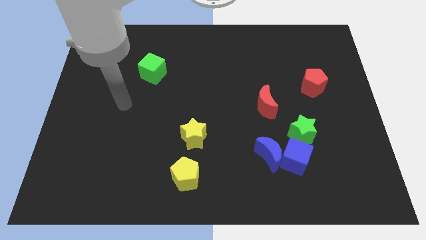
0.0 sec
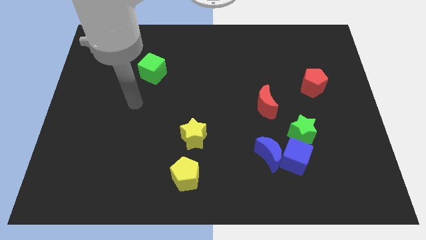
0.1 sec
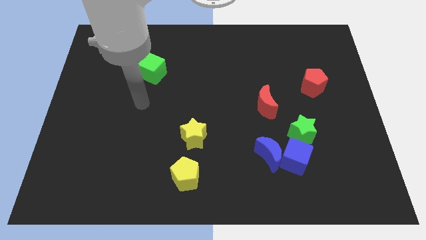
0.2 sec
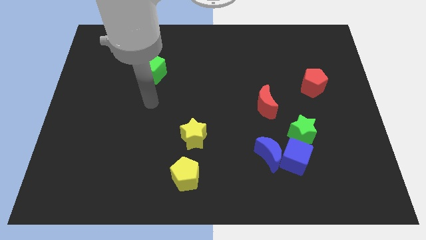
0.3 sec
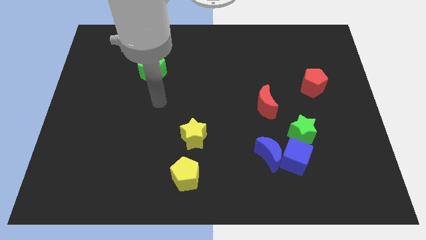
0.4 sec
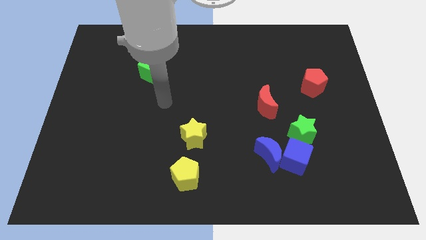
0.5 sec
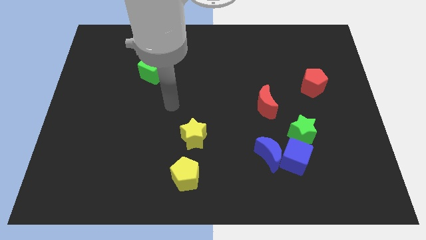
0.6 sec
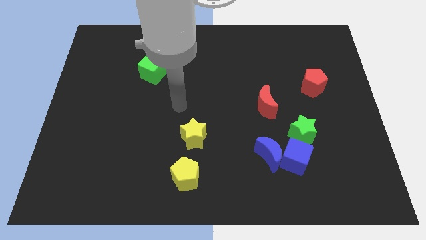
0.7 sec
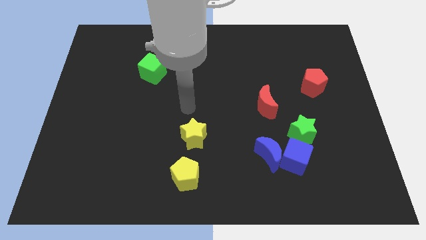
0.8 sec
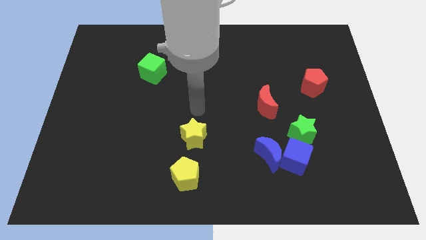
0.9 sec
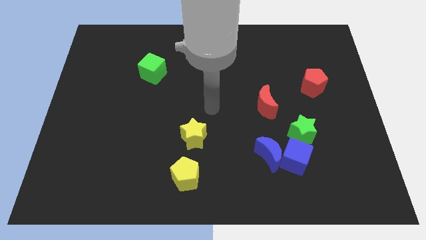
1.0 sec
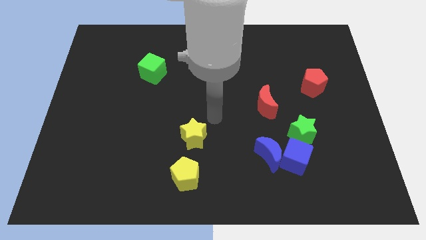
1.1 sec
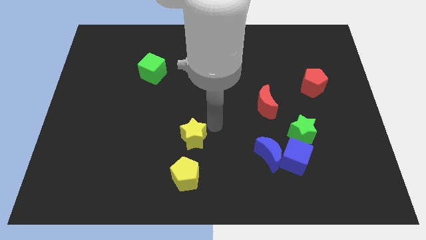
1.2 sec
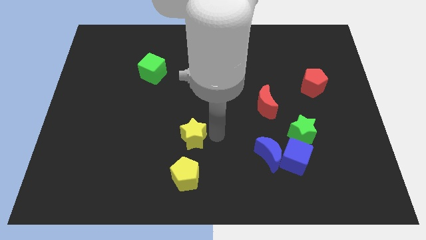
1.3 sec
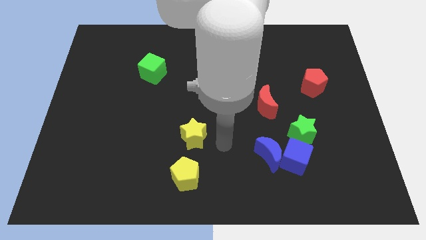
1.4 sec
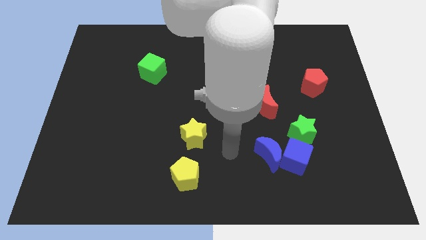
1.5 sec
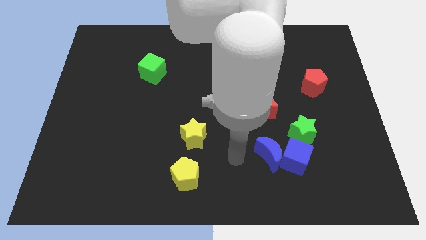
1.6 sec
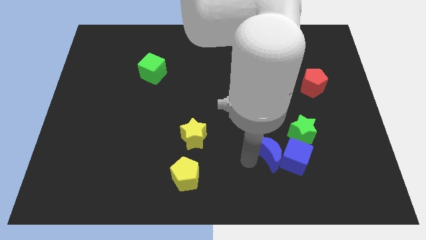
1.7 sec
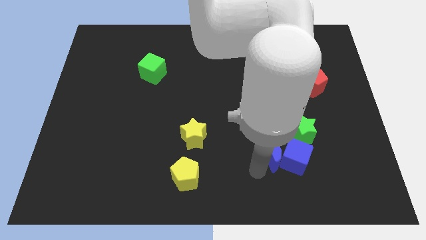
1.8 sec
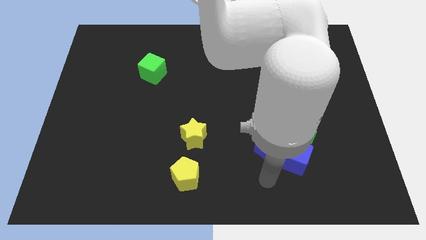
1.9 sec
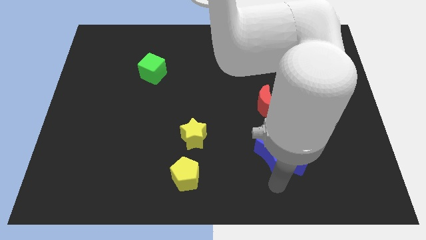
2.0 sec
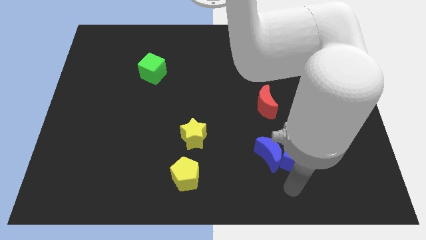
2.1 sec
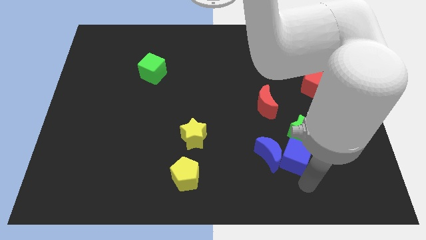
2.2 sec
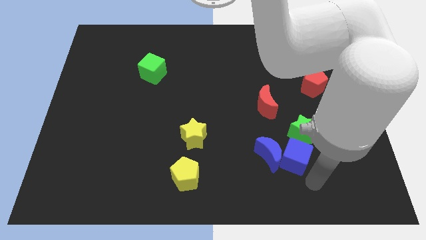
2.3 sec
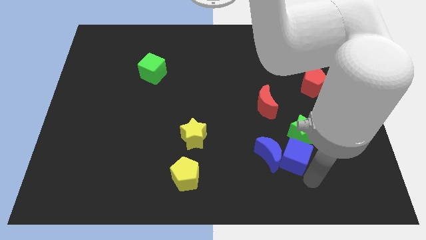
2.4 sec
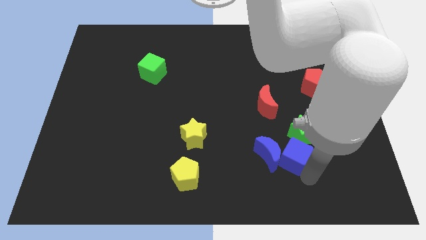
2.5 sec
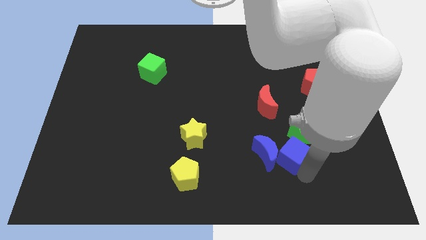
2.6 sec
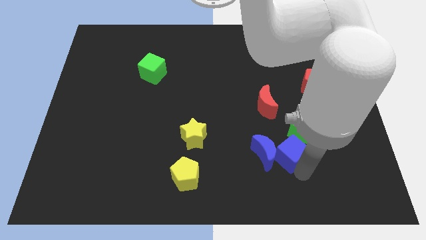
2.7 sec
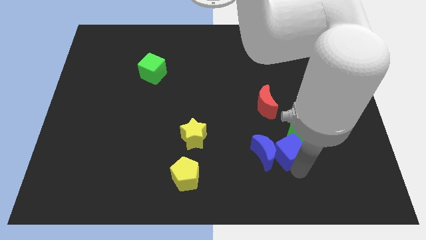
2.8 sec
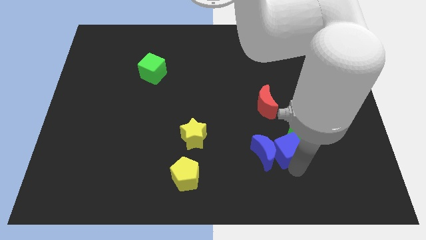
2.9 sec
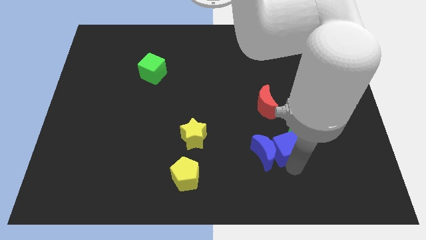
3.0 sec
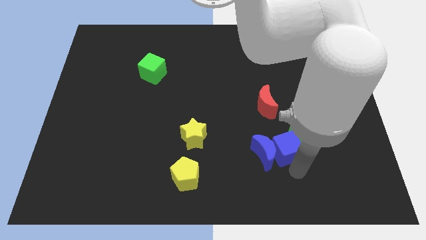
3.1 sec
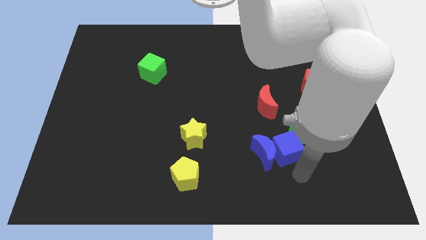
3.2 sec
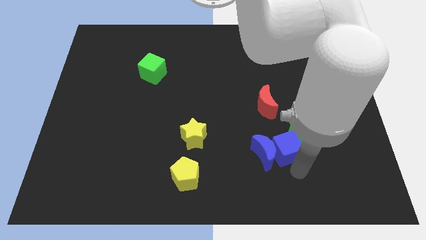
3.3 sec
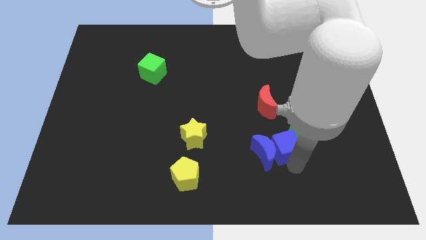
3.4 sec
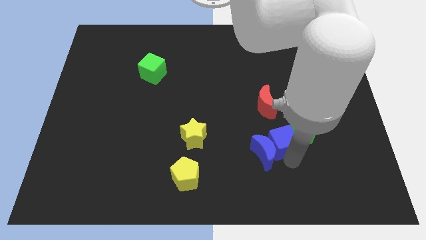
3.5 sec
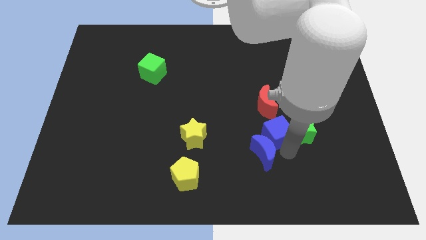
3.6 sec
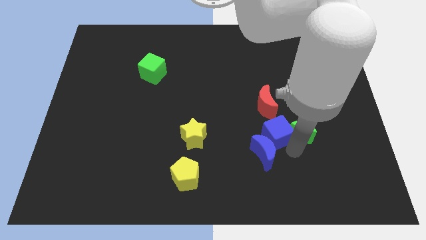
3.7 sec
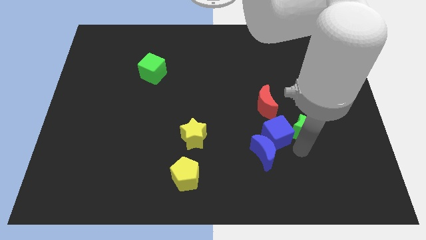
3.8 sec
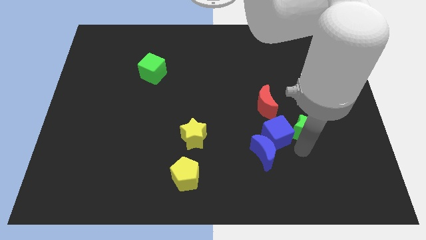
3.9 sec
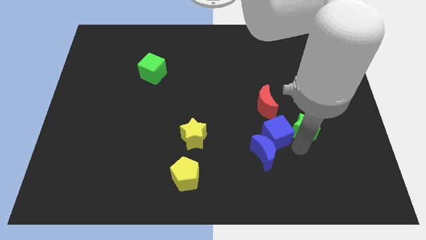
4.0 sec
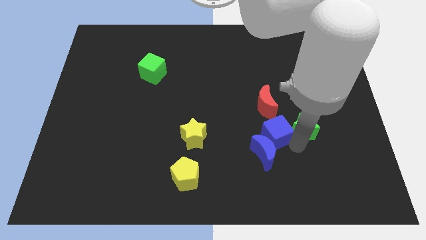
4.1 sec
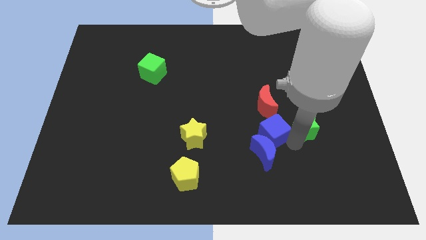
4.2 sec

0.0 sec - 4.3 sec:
slightly move the blue cube upwards and to the left

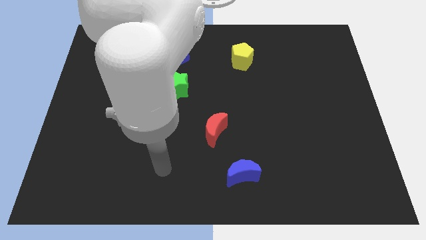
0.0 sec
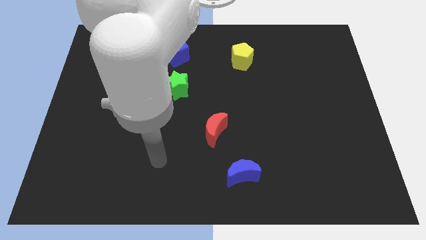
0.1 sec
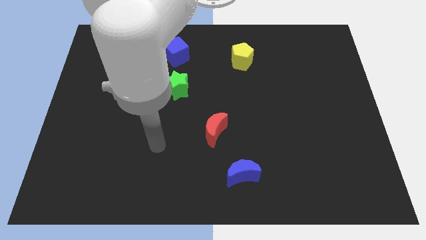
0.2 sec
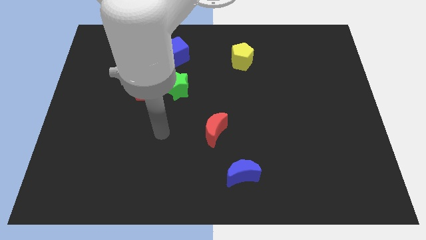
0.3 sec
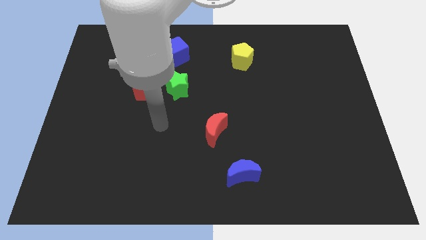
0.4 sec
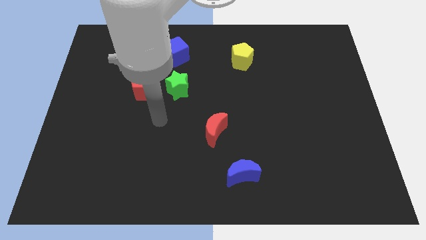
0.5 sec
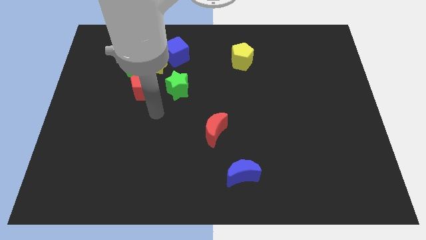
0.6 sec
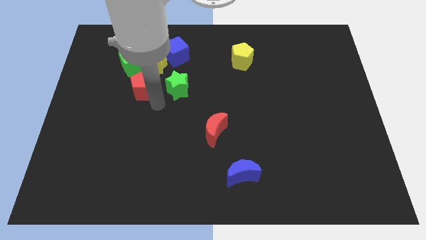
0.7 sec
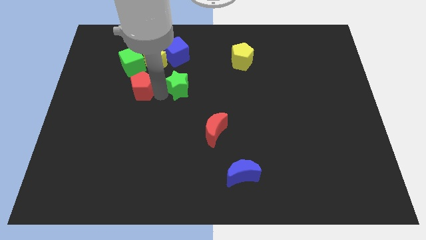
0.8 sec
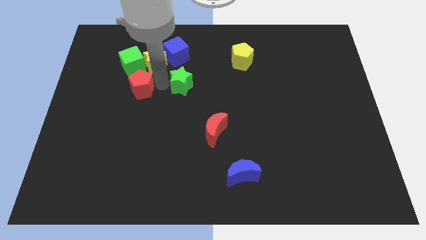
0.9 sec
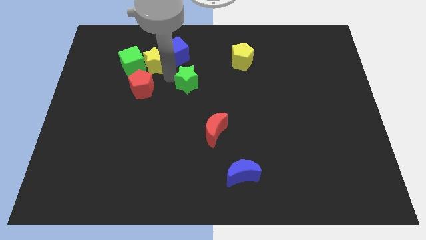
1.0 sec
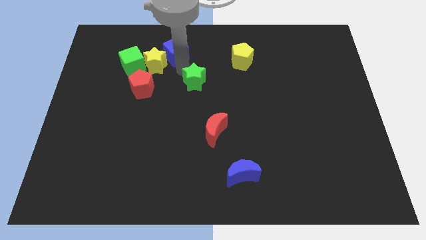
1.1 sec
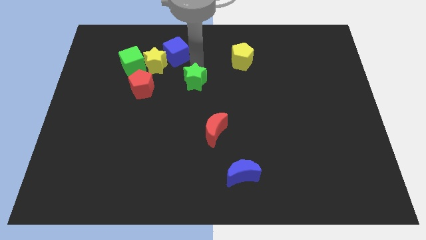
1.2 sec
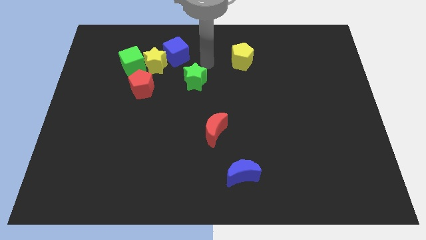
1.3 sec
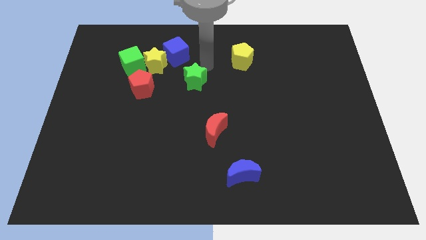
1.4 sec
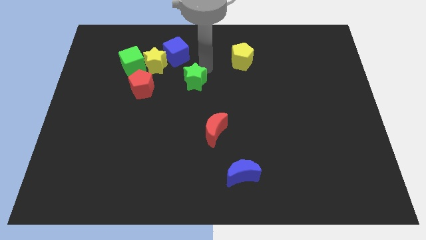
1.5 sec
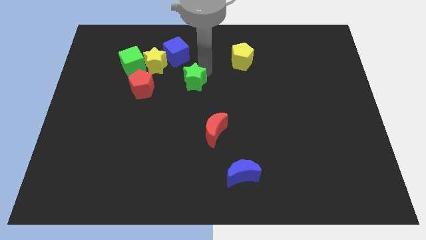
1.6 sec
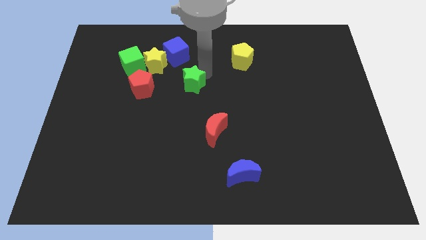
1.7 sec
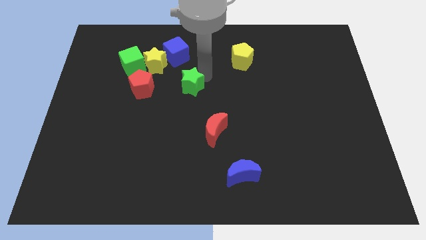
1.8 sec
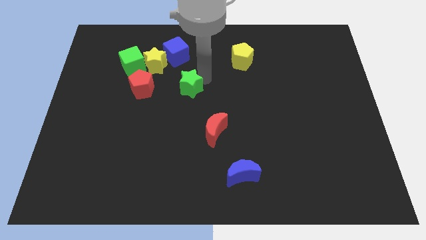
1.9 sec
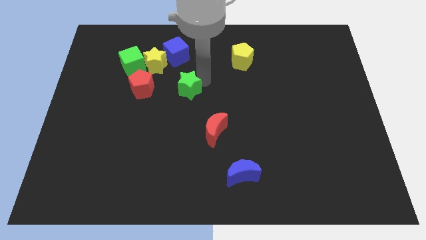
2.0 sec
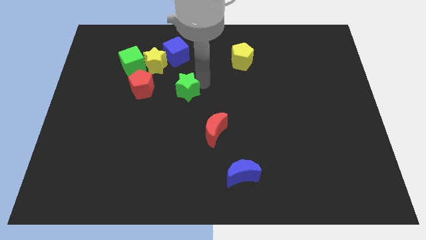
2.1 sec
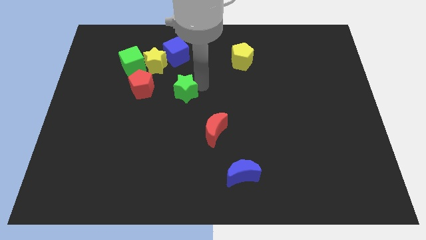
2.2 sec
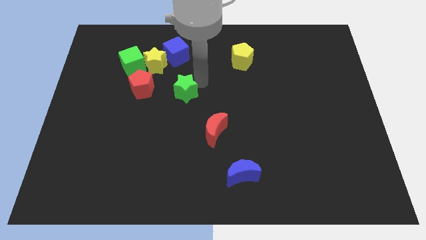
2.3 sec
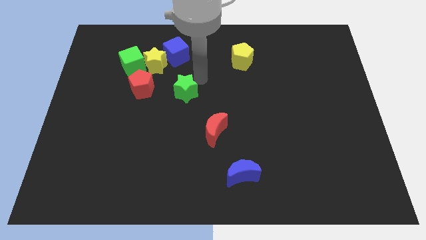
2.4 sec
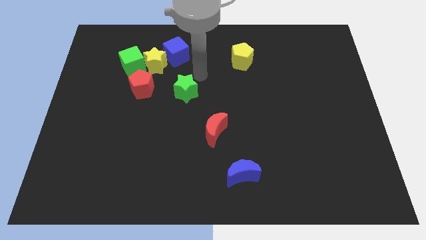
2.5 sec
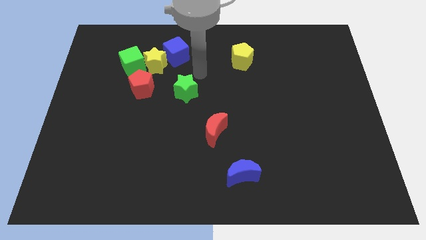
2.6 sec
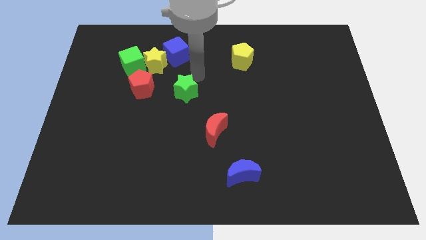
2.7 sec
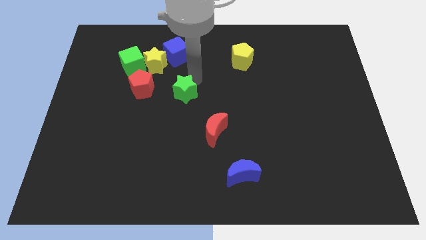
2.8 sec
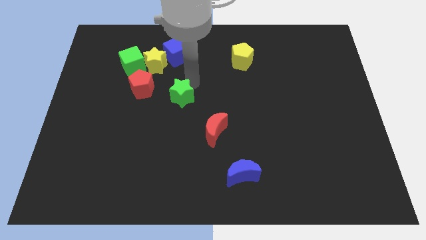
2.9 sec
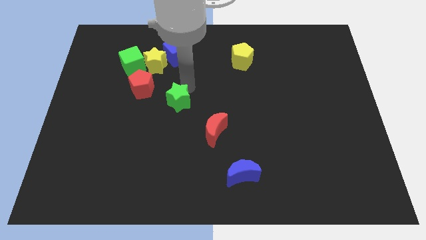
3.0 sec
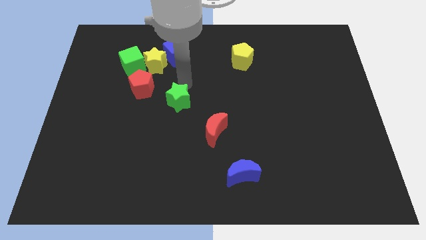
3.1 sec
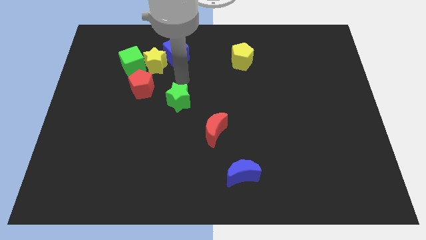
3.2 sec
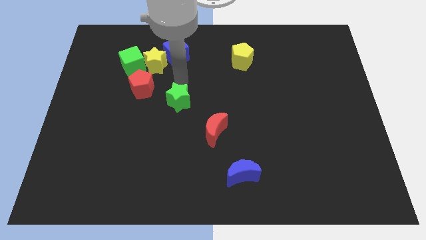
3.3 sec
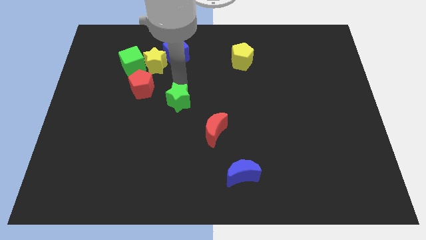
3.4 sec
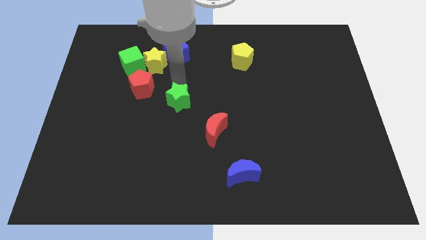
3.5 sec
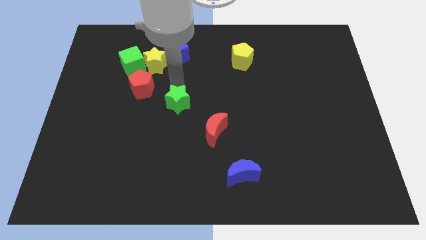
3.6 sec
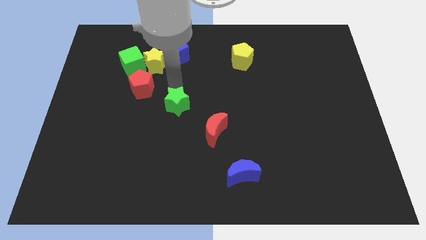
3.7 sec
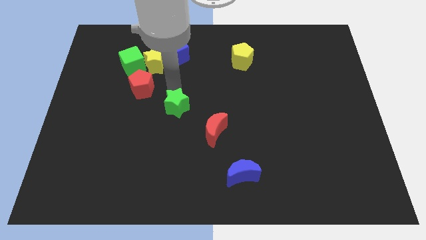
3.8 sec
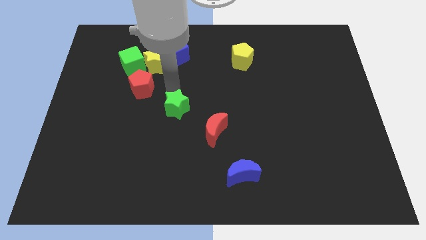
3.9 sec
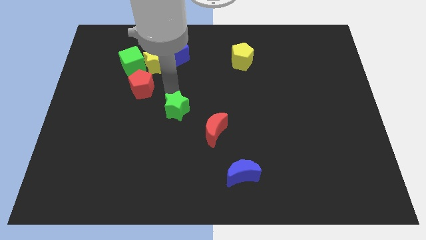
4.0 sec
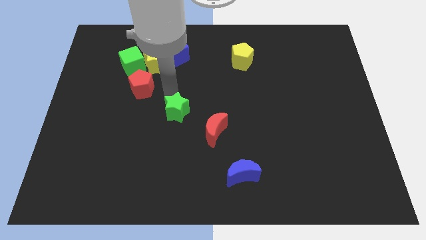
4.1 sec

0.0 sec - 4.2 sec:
slightly push the green star down
